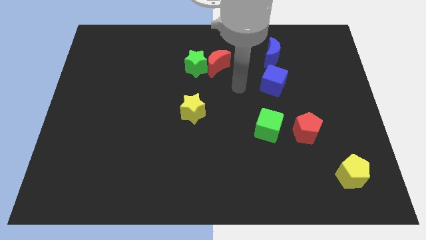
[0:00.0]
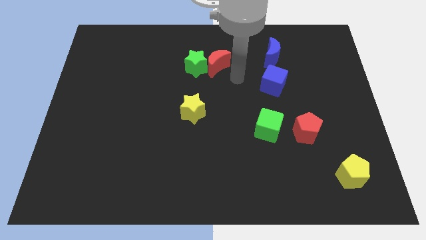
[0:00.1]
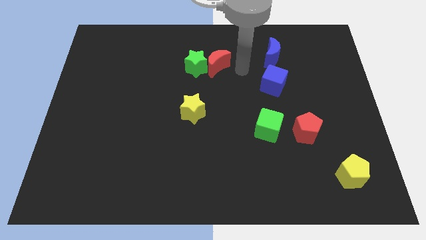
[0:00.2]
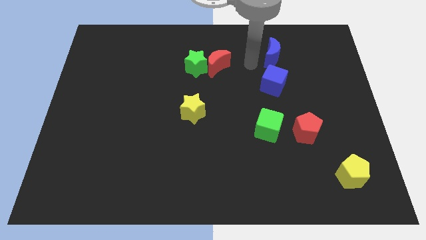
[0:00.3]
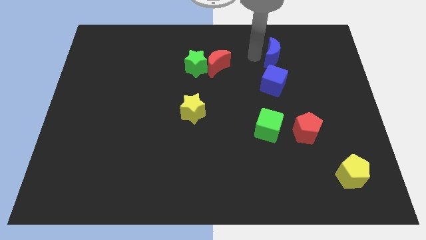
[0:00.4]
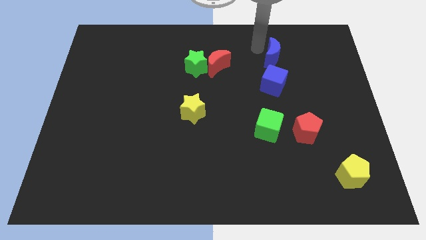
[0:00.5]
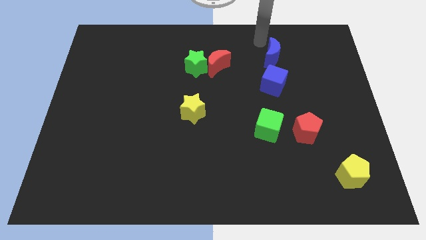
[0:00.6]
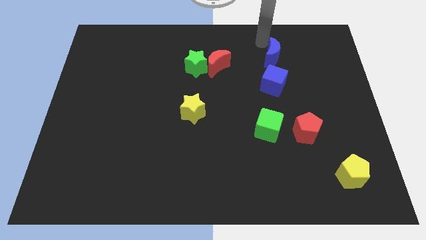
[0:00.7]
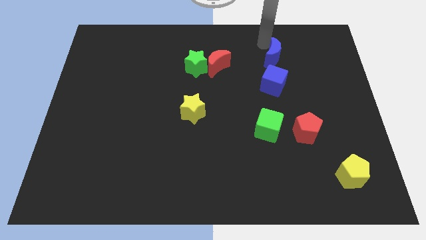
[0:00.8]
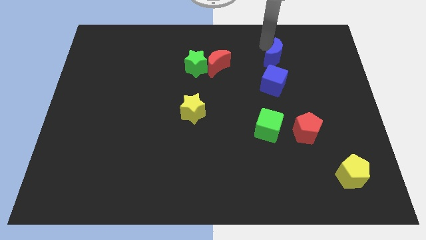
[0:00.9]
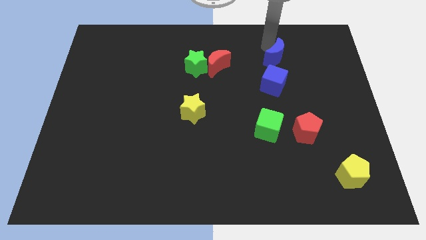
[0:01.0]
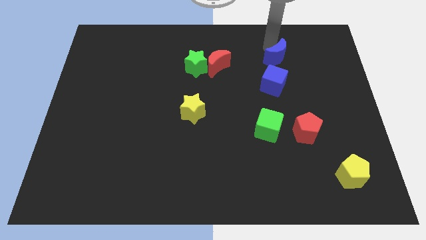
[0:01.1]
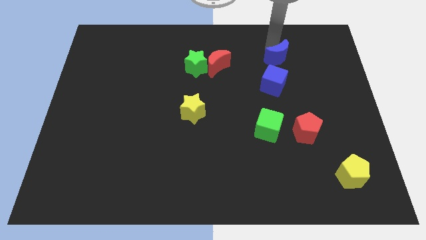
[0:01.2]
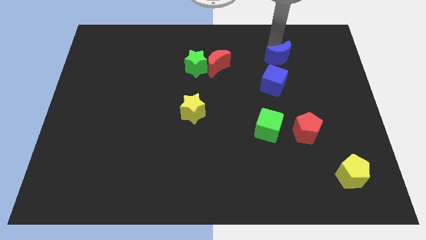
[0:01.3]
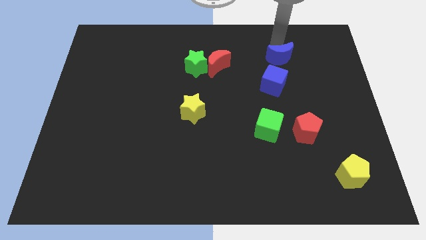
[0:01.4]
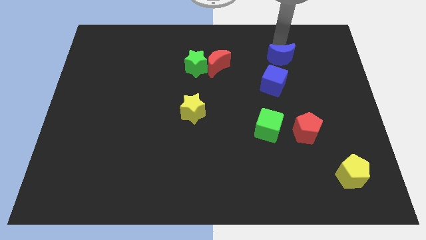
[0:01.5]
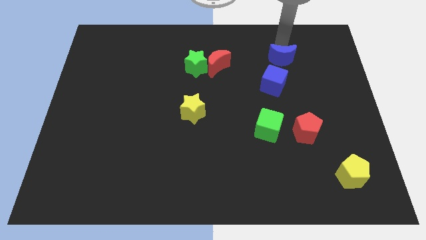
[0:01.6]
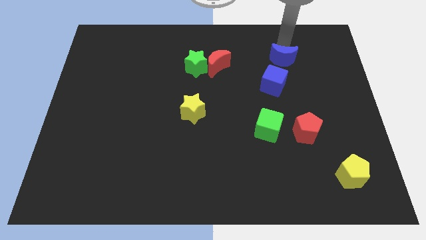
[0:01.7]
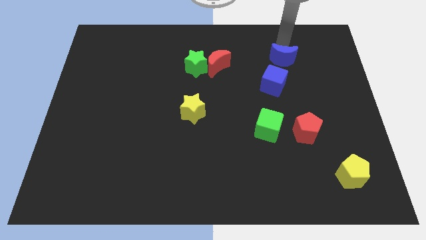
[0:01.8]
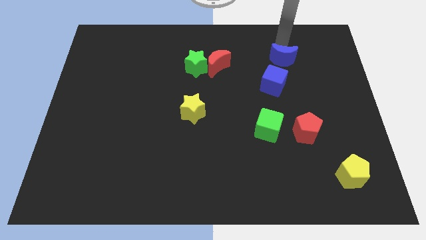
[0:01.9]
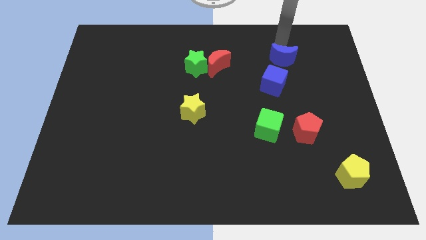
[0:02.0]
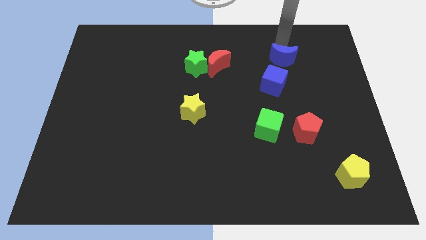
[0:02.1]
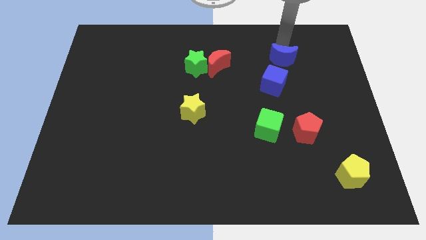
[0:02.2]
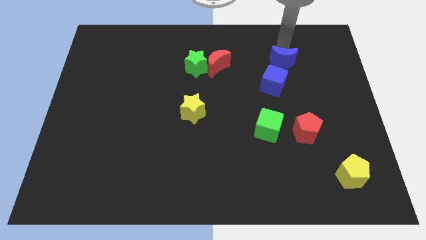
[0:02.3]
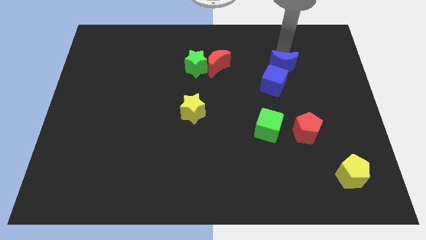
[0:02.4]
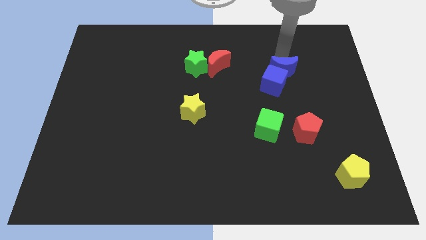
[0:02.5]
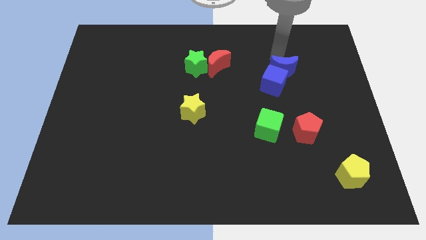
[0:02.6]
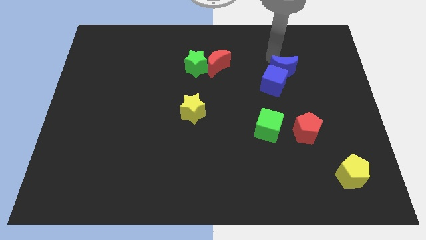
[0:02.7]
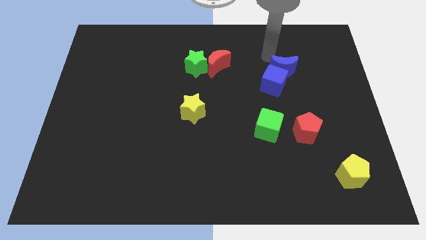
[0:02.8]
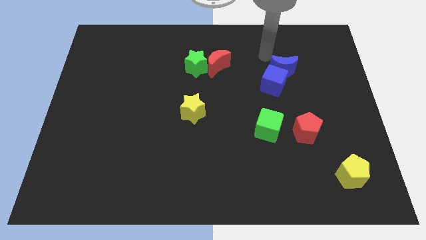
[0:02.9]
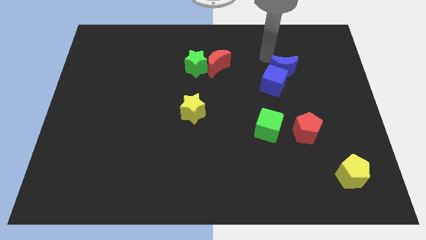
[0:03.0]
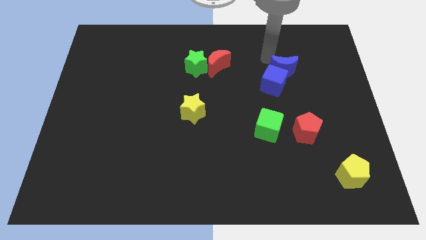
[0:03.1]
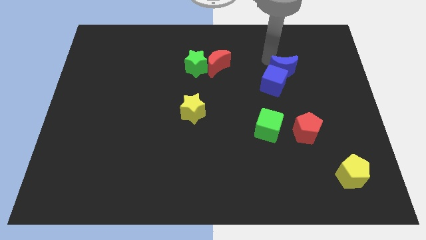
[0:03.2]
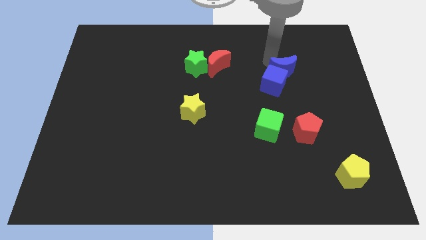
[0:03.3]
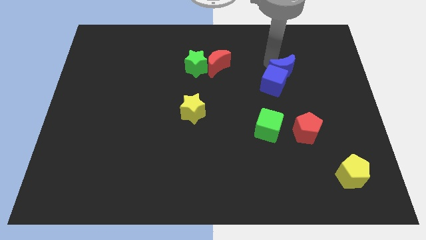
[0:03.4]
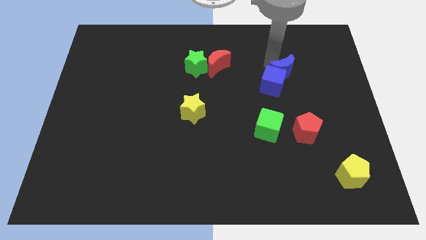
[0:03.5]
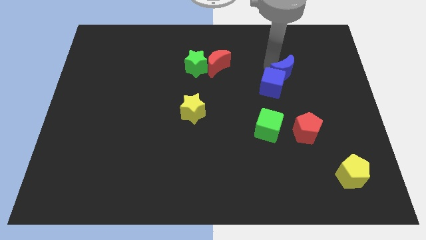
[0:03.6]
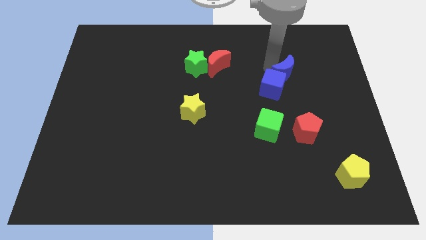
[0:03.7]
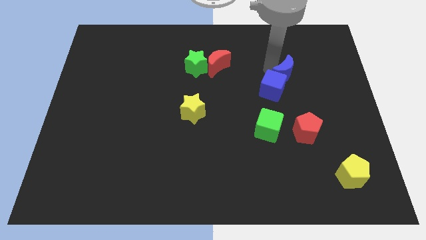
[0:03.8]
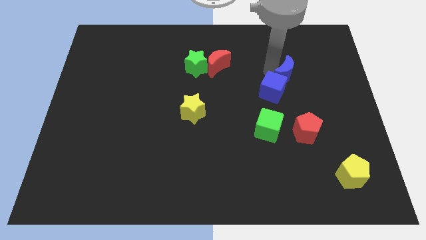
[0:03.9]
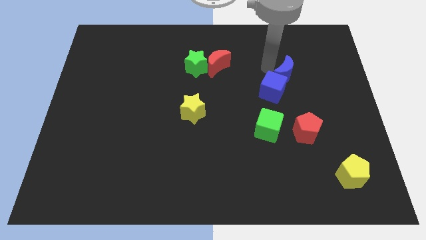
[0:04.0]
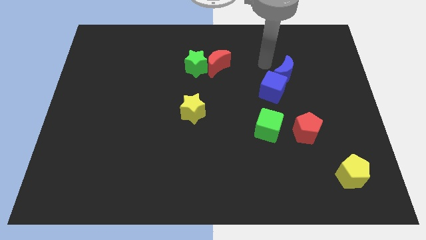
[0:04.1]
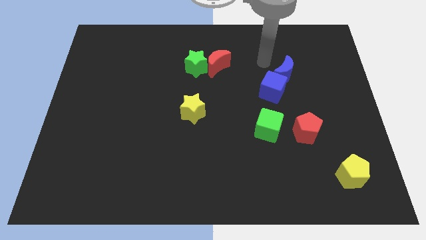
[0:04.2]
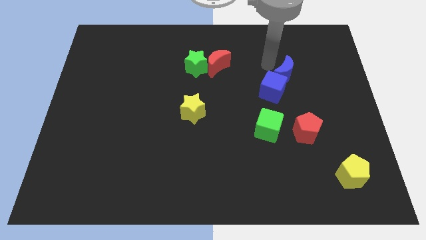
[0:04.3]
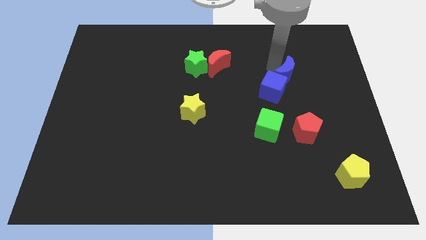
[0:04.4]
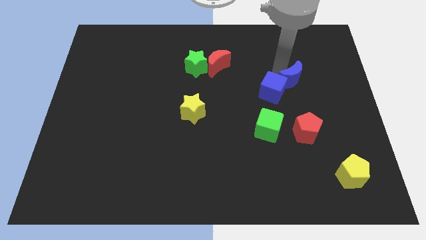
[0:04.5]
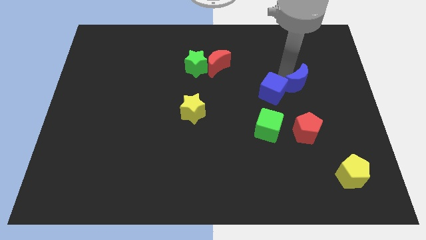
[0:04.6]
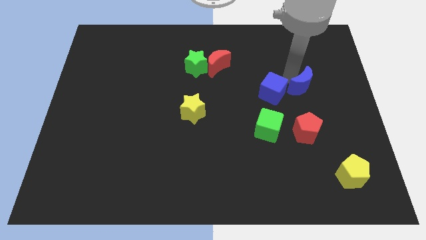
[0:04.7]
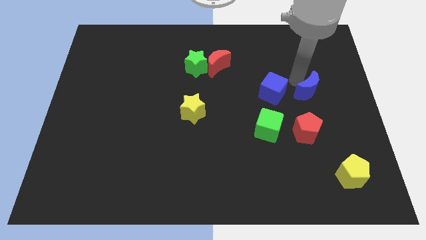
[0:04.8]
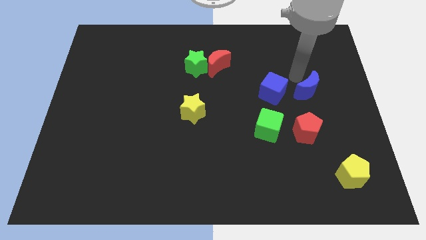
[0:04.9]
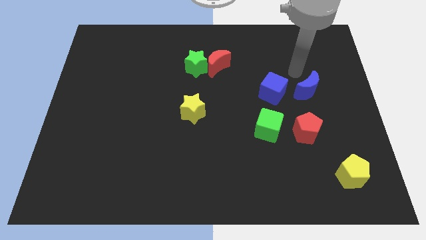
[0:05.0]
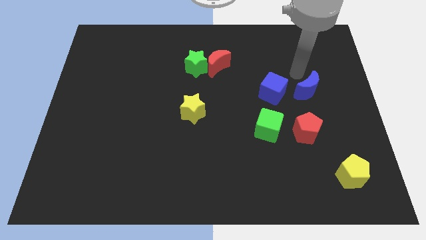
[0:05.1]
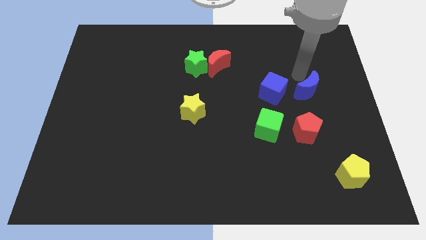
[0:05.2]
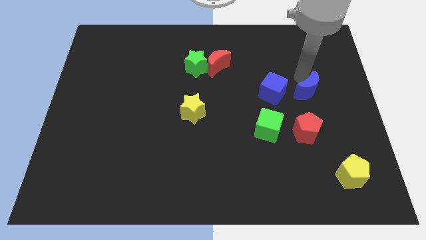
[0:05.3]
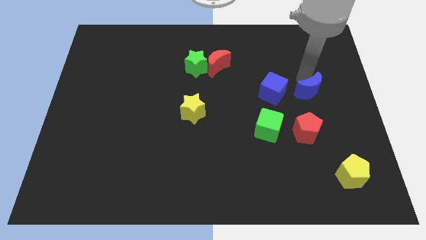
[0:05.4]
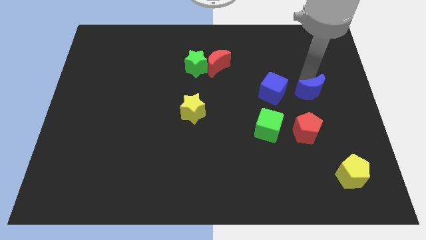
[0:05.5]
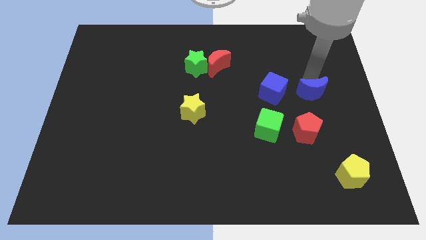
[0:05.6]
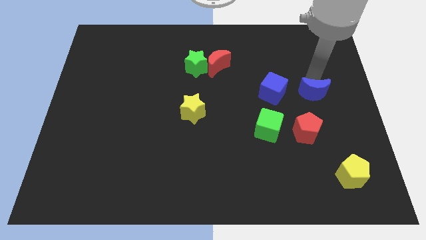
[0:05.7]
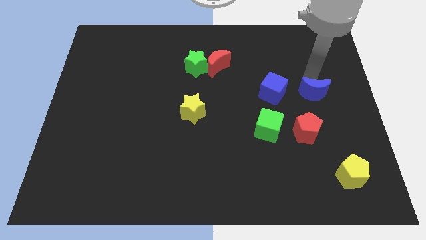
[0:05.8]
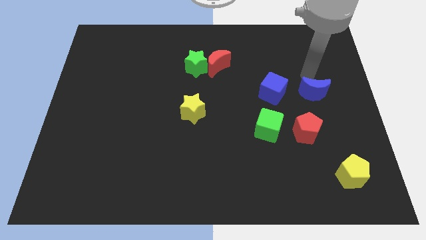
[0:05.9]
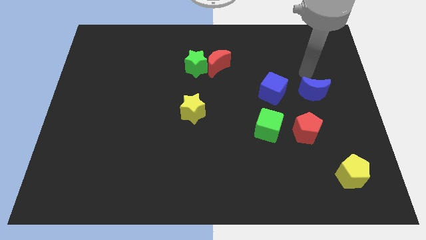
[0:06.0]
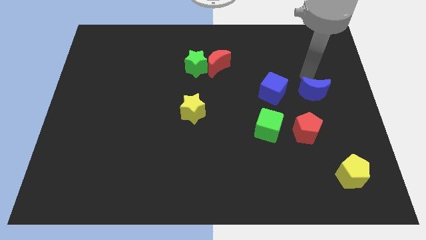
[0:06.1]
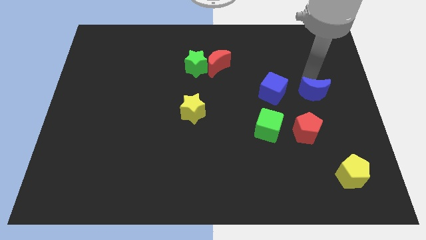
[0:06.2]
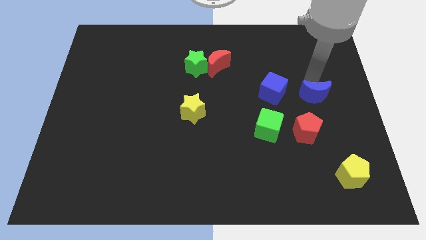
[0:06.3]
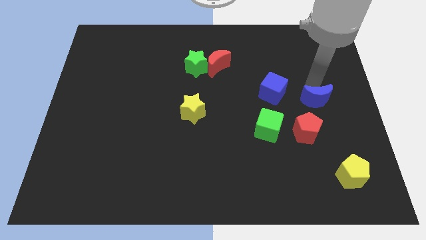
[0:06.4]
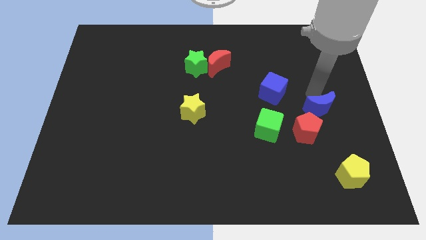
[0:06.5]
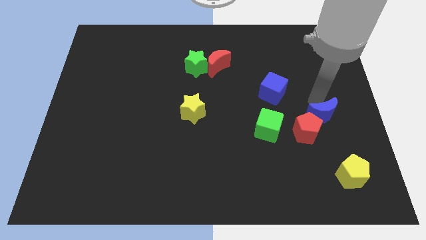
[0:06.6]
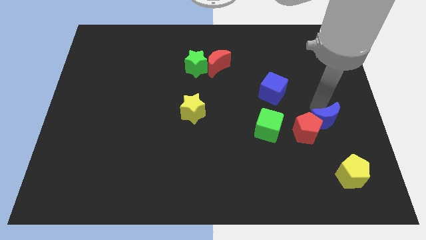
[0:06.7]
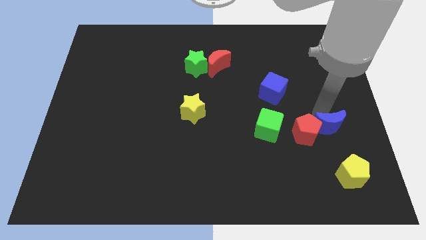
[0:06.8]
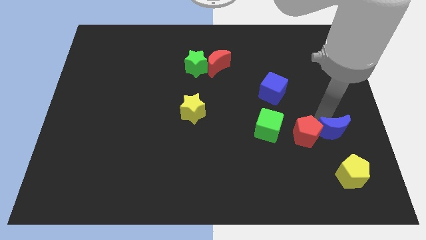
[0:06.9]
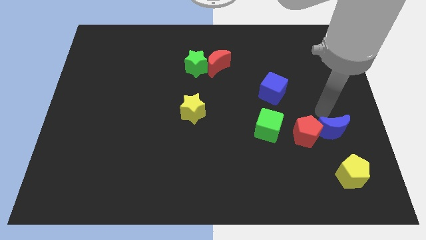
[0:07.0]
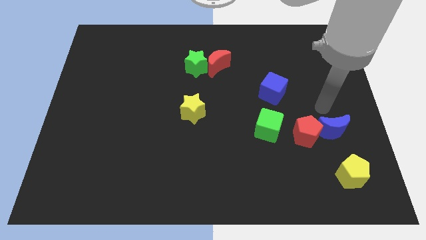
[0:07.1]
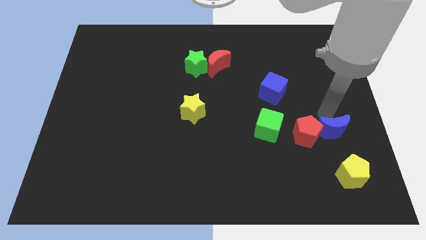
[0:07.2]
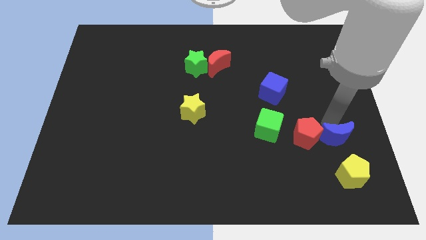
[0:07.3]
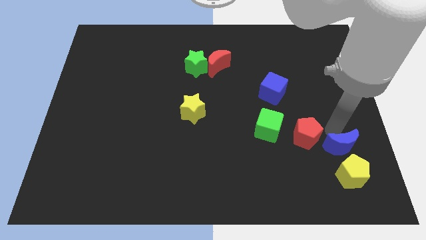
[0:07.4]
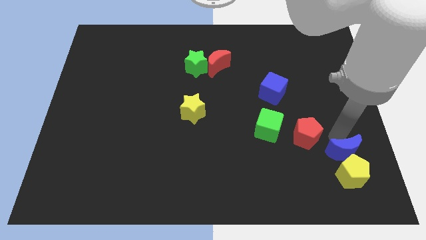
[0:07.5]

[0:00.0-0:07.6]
push the blue moon close to the yellow pentagon
